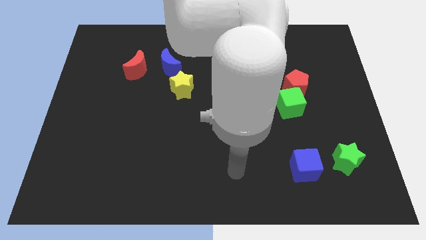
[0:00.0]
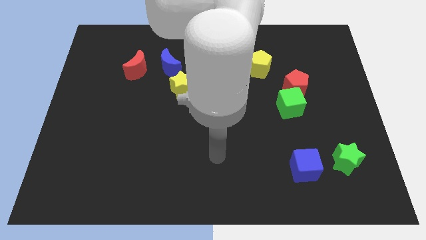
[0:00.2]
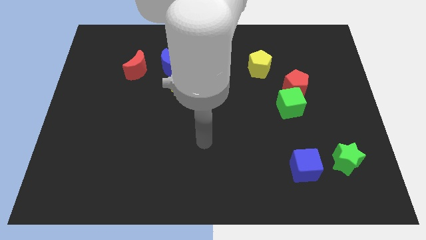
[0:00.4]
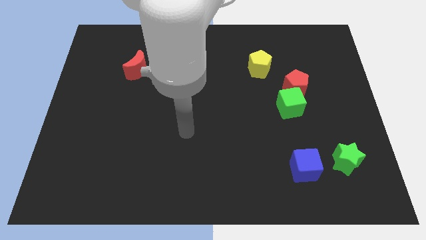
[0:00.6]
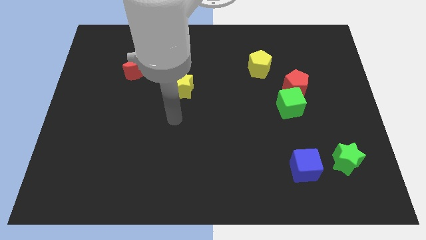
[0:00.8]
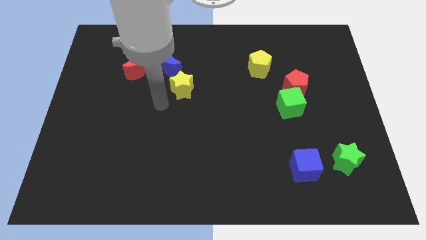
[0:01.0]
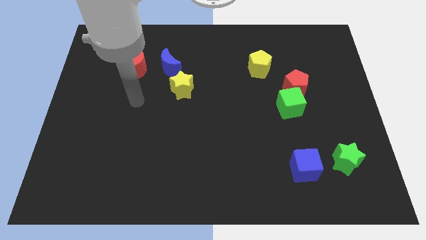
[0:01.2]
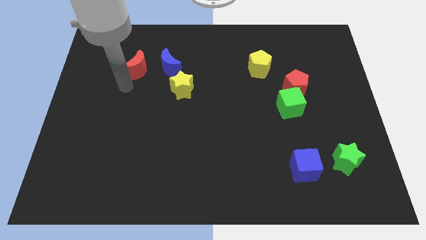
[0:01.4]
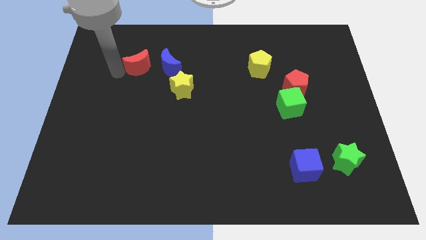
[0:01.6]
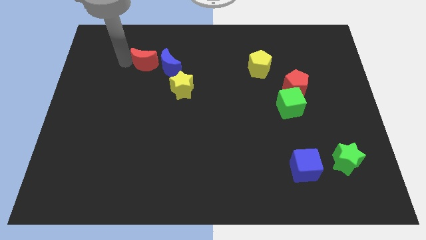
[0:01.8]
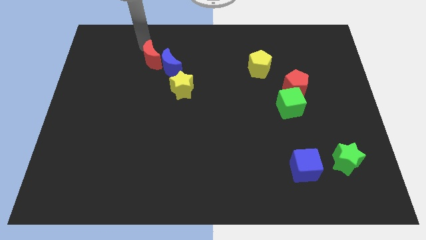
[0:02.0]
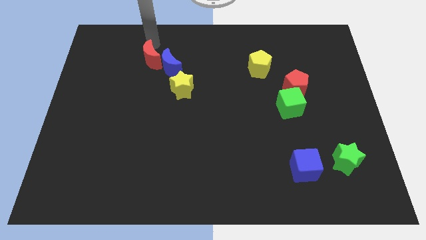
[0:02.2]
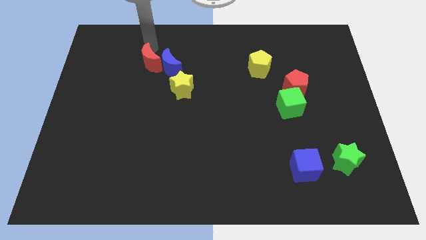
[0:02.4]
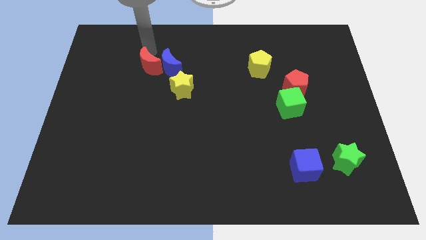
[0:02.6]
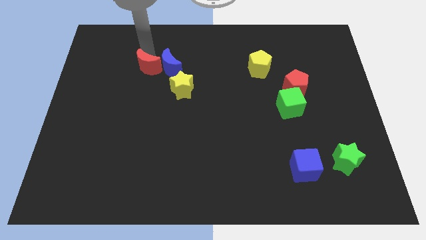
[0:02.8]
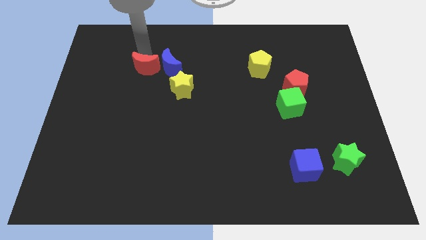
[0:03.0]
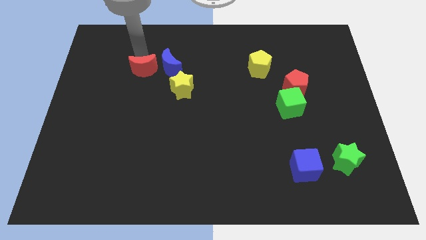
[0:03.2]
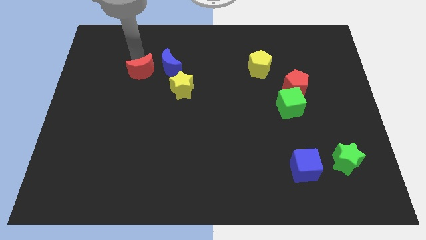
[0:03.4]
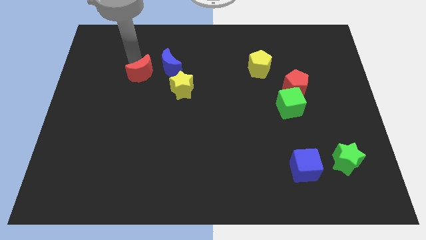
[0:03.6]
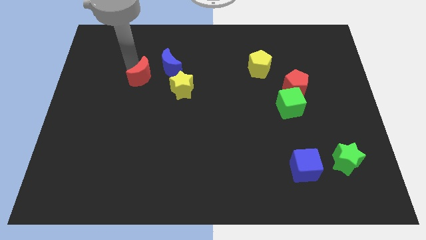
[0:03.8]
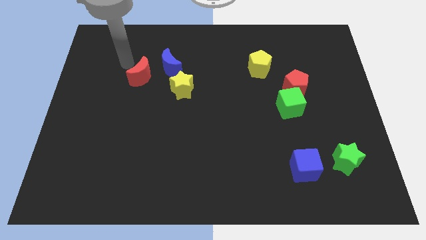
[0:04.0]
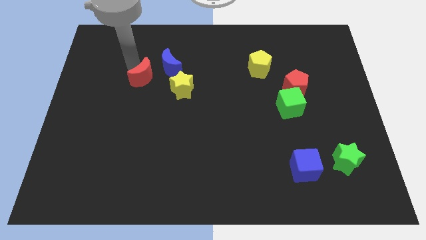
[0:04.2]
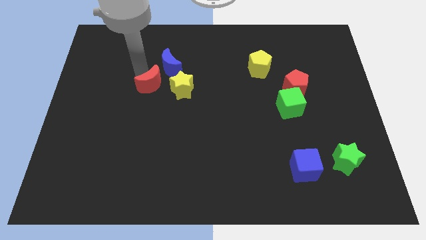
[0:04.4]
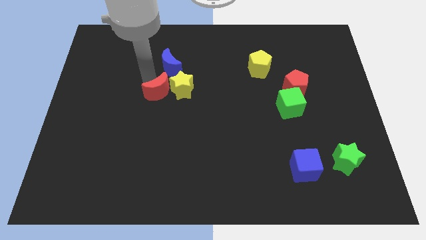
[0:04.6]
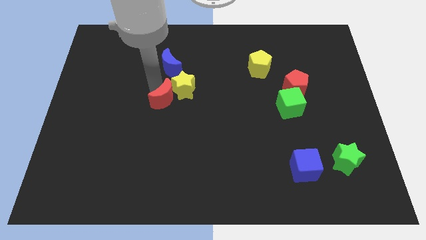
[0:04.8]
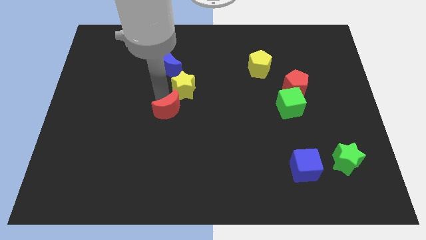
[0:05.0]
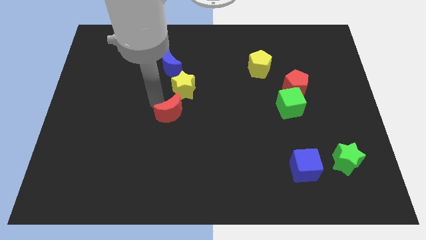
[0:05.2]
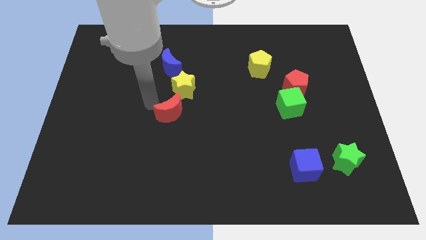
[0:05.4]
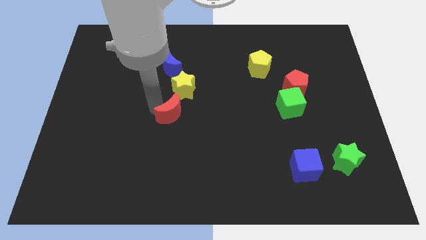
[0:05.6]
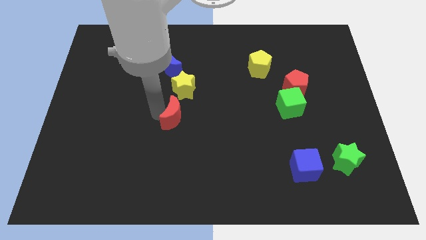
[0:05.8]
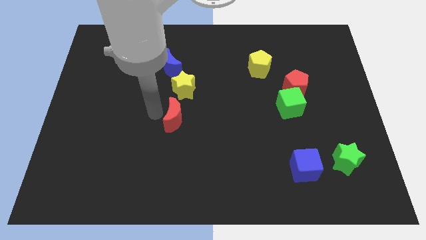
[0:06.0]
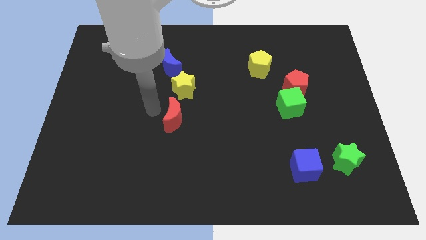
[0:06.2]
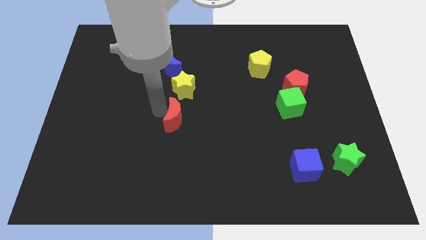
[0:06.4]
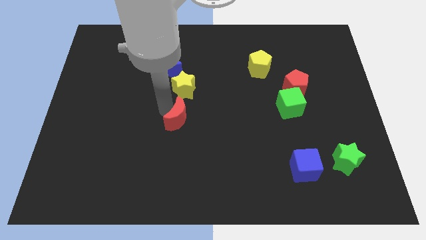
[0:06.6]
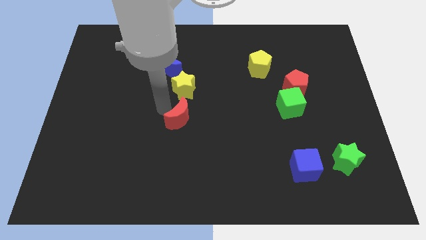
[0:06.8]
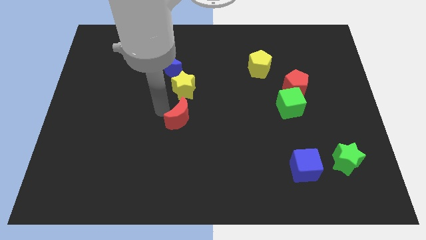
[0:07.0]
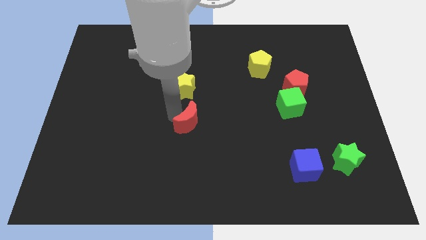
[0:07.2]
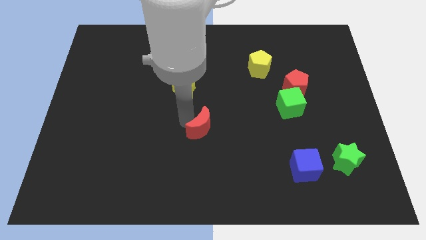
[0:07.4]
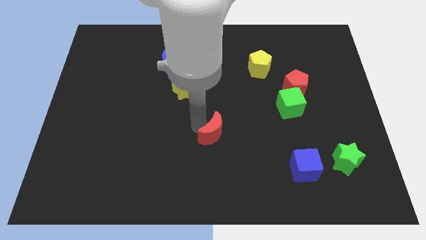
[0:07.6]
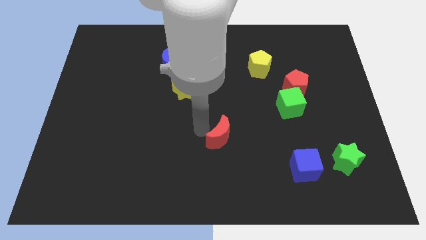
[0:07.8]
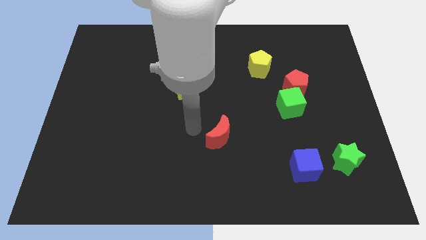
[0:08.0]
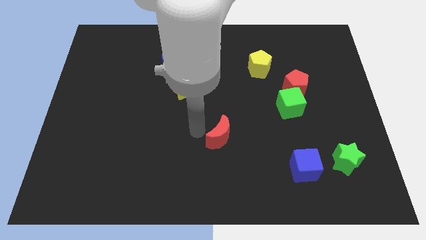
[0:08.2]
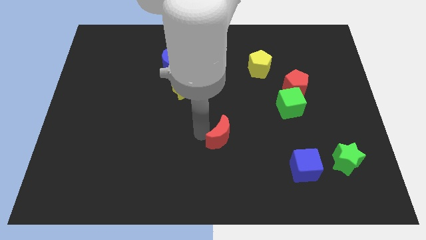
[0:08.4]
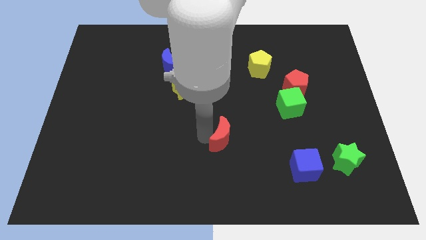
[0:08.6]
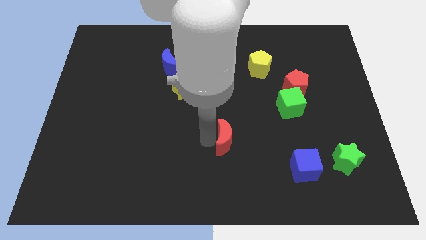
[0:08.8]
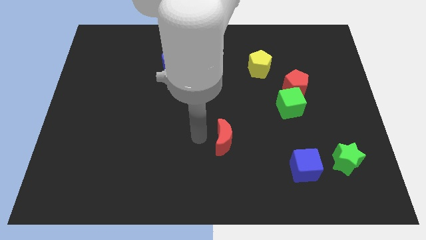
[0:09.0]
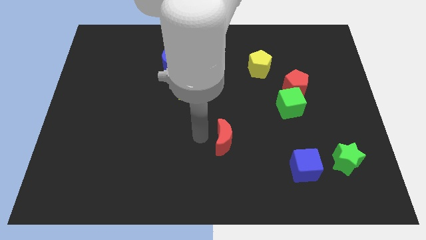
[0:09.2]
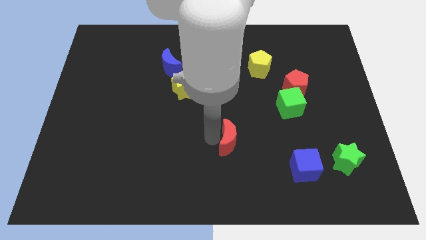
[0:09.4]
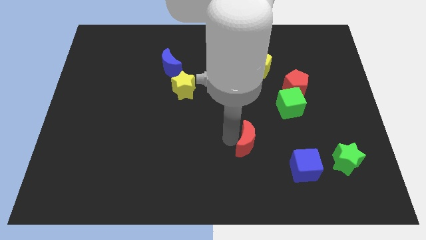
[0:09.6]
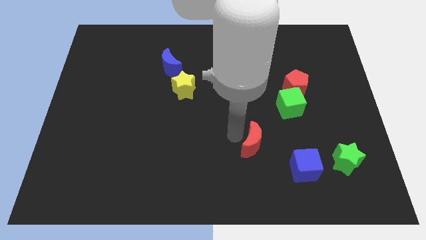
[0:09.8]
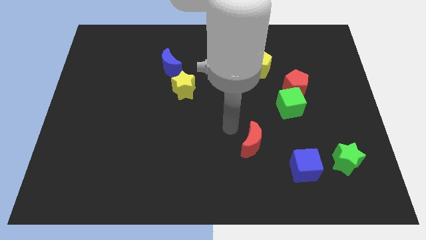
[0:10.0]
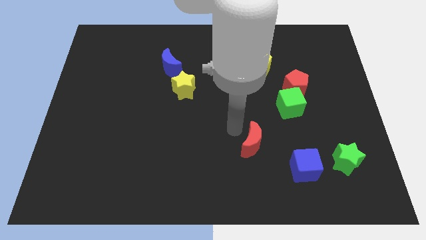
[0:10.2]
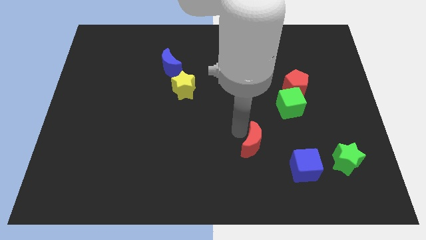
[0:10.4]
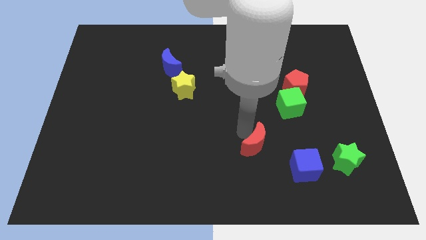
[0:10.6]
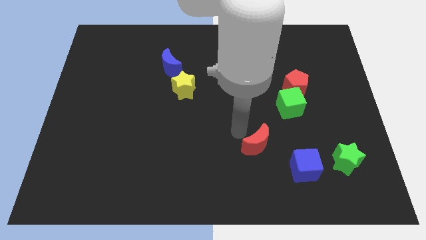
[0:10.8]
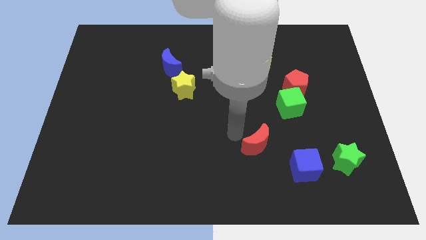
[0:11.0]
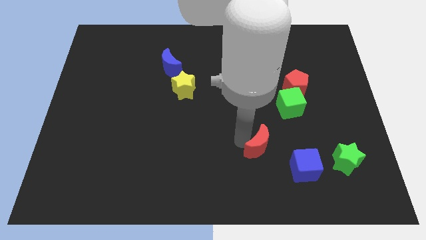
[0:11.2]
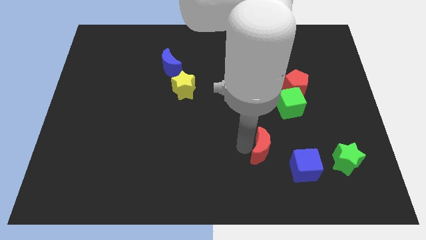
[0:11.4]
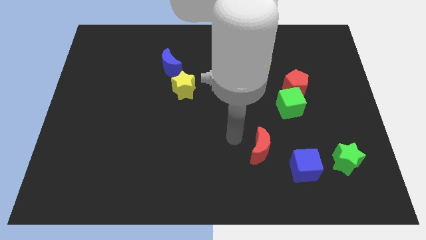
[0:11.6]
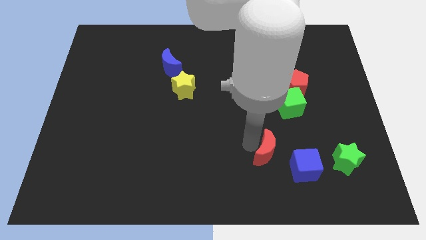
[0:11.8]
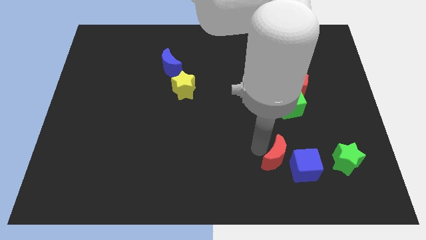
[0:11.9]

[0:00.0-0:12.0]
move the red moon to the blue cube

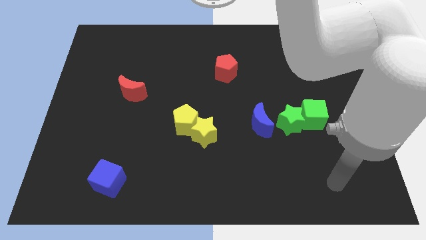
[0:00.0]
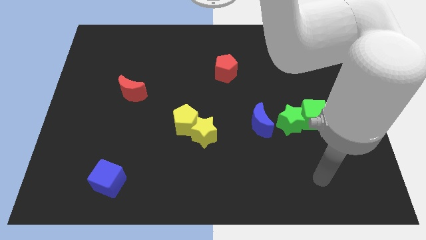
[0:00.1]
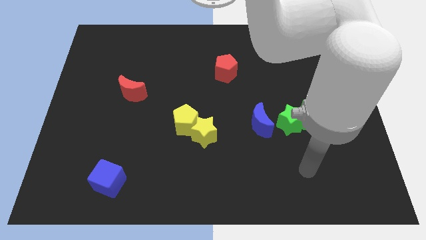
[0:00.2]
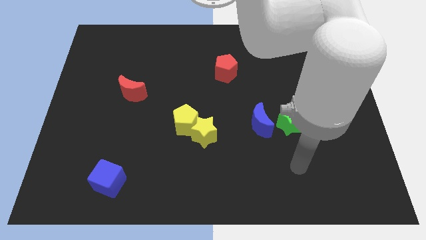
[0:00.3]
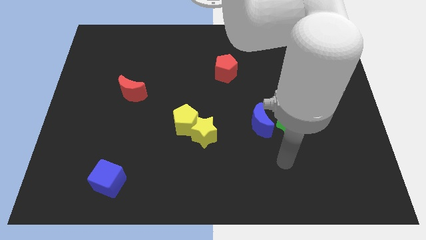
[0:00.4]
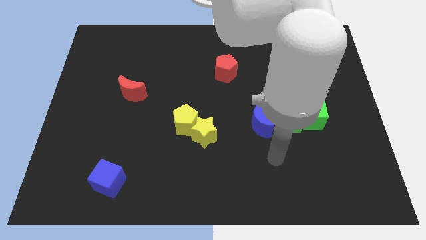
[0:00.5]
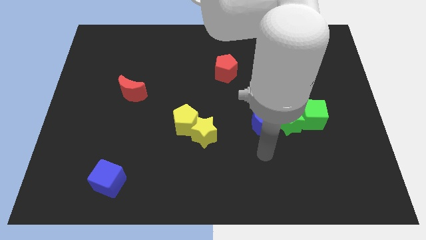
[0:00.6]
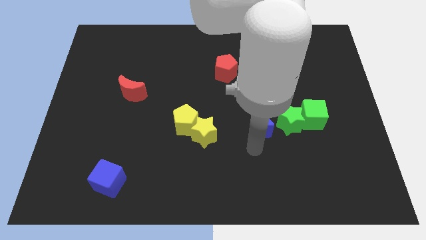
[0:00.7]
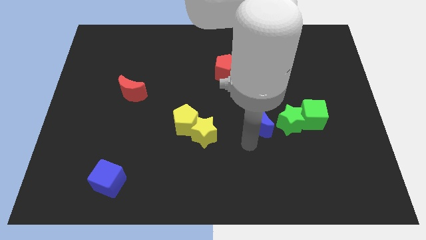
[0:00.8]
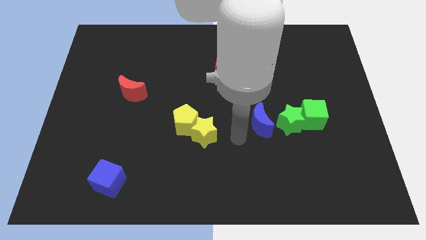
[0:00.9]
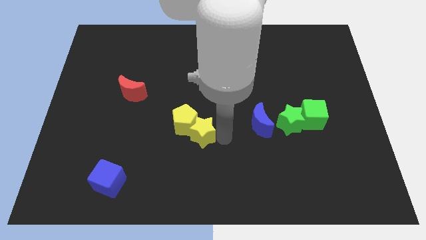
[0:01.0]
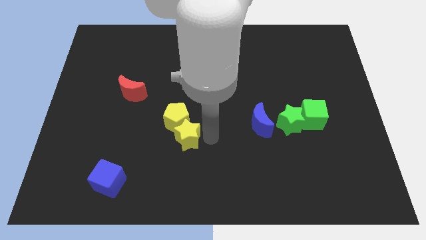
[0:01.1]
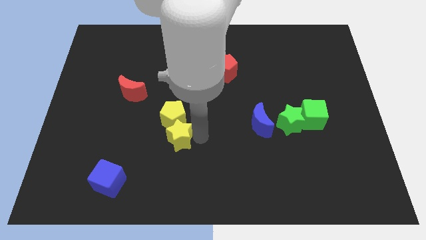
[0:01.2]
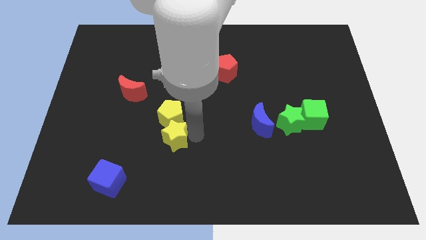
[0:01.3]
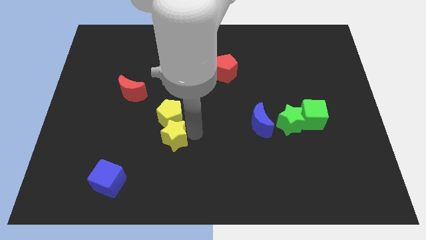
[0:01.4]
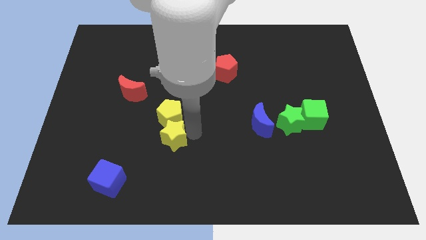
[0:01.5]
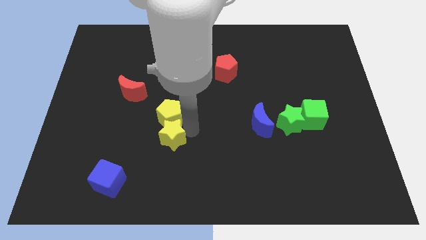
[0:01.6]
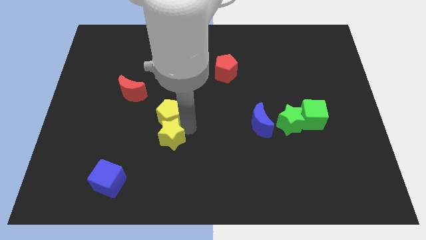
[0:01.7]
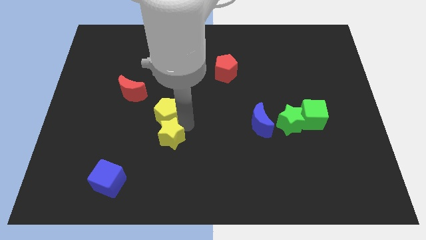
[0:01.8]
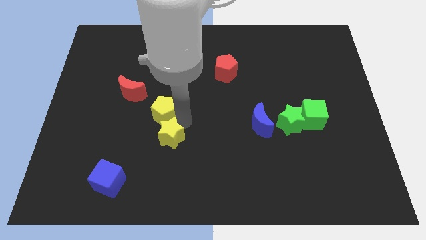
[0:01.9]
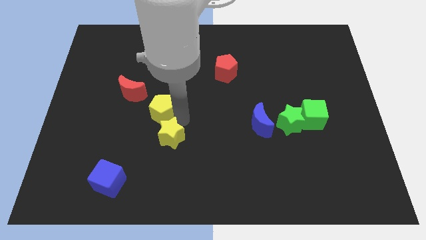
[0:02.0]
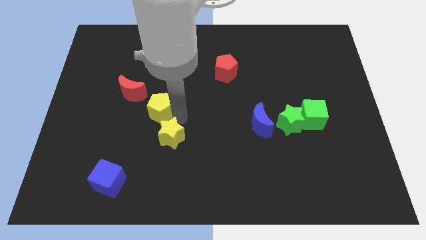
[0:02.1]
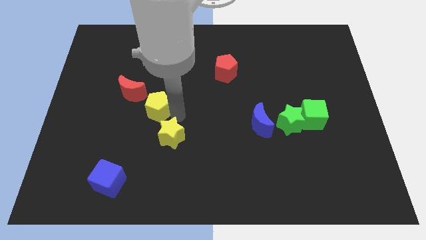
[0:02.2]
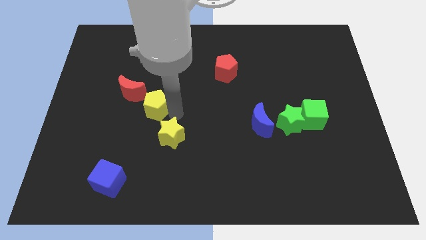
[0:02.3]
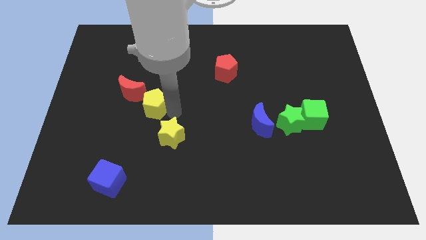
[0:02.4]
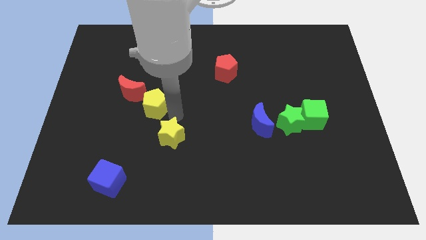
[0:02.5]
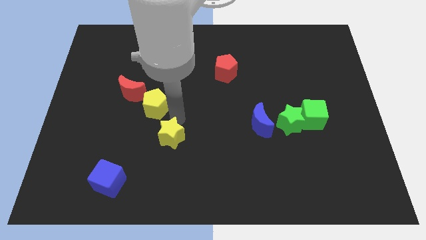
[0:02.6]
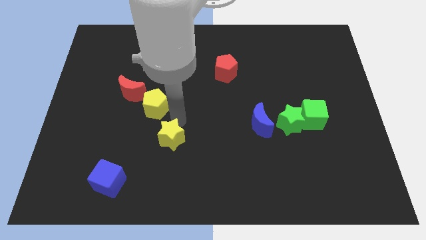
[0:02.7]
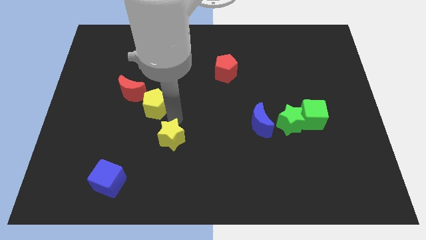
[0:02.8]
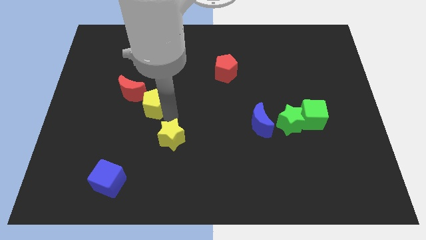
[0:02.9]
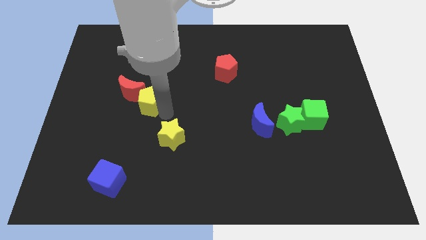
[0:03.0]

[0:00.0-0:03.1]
slide the yellow pentagon next to the red moon
